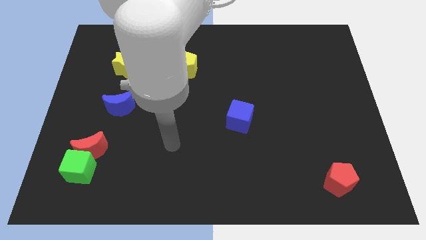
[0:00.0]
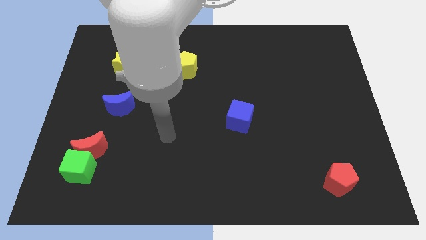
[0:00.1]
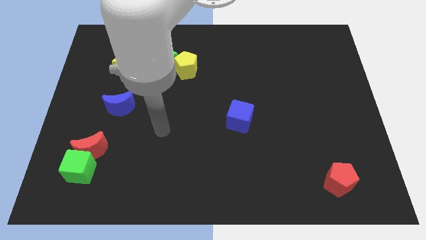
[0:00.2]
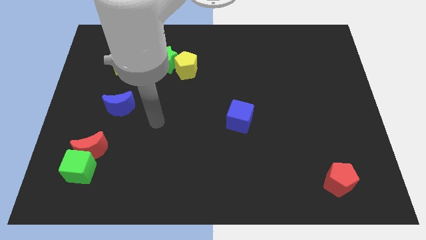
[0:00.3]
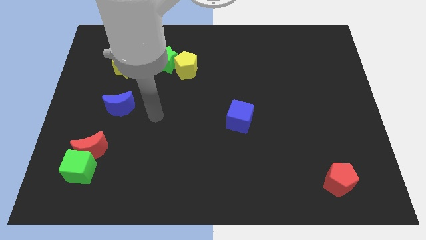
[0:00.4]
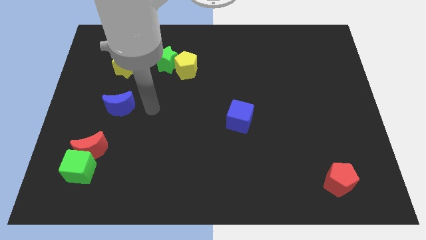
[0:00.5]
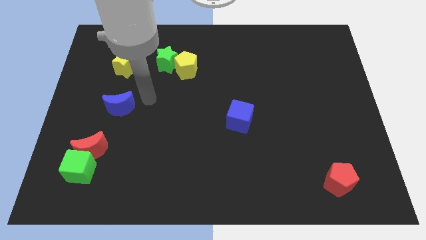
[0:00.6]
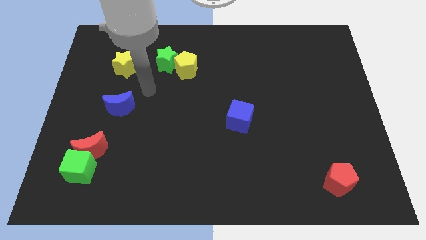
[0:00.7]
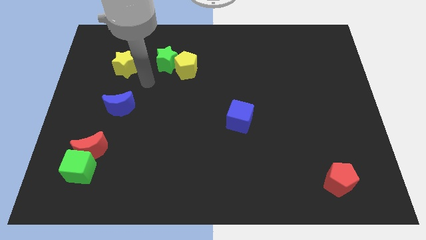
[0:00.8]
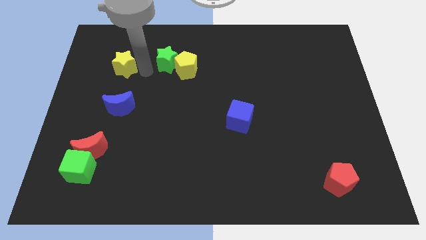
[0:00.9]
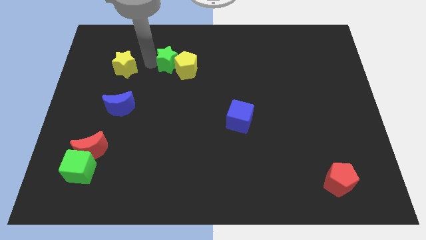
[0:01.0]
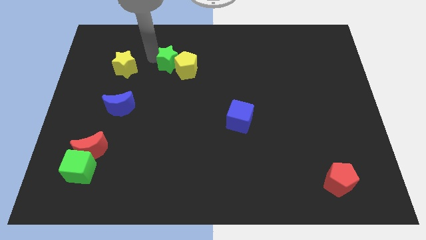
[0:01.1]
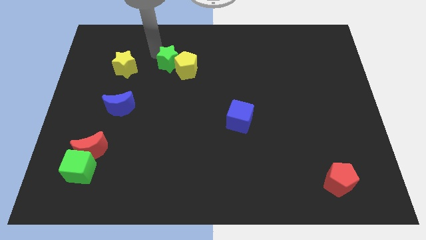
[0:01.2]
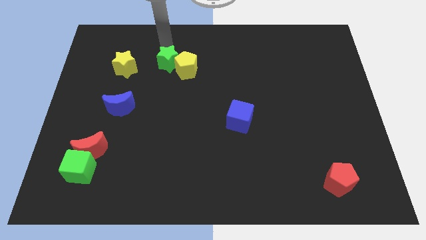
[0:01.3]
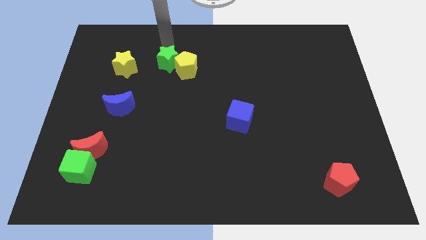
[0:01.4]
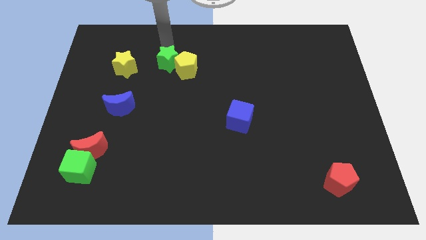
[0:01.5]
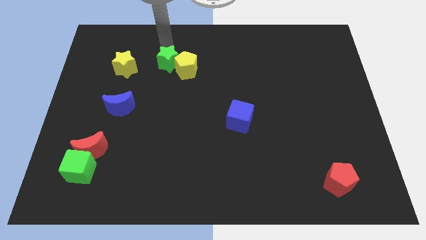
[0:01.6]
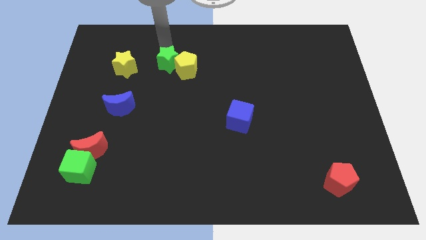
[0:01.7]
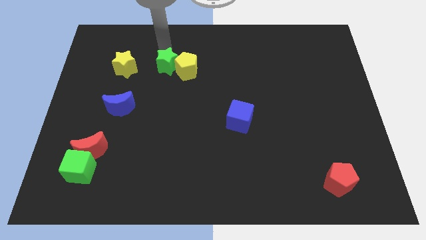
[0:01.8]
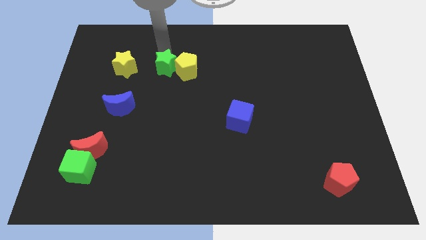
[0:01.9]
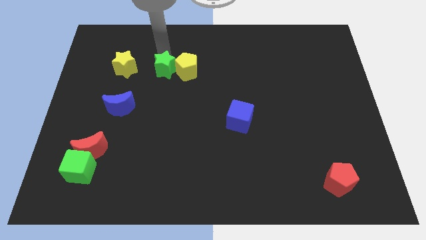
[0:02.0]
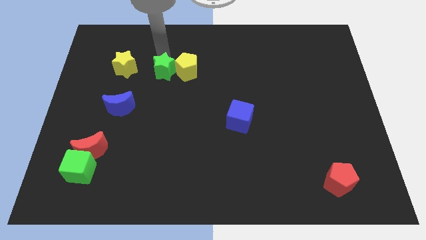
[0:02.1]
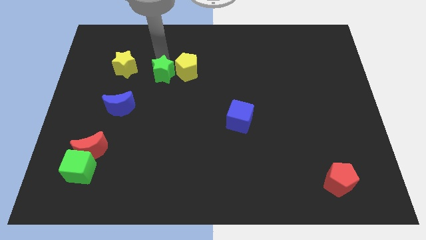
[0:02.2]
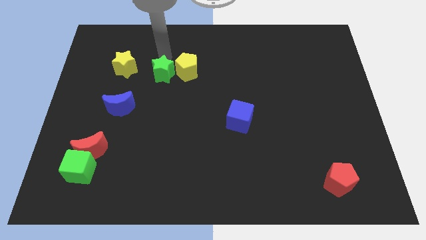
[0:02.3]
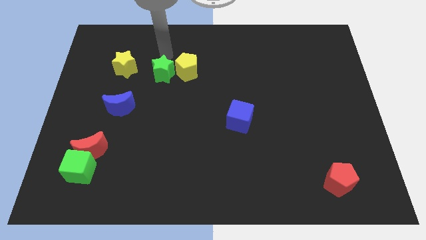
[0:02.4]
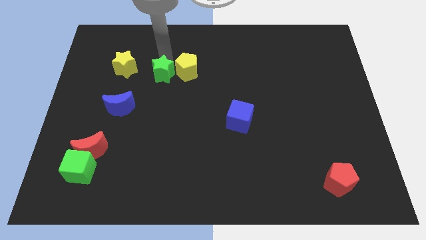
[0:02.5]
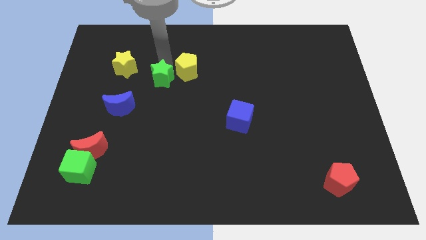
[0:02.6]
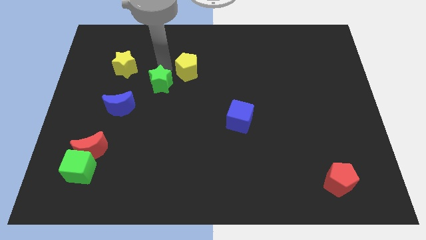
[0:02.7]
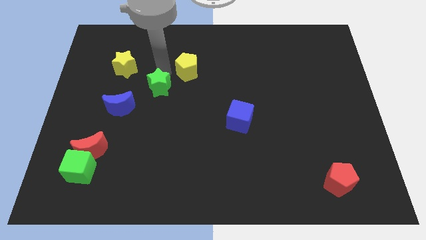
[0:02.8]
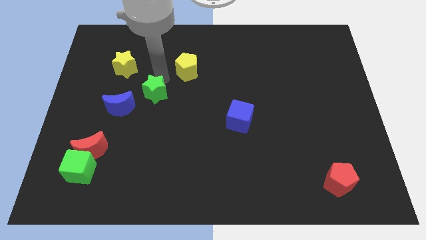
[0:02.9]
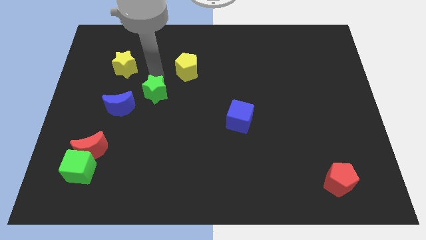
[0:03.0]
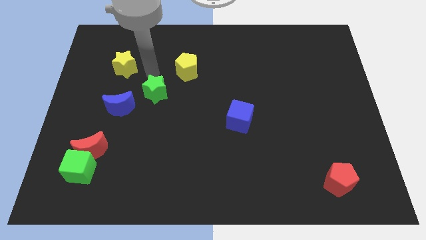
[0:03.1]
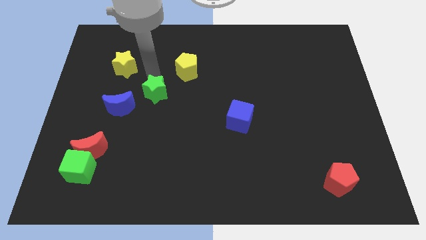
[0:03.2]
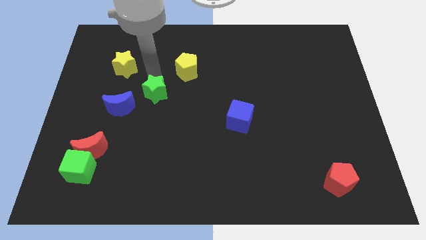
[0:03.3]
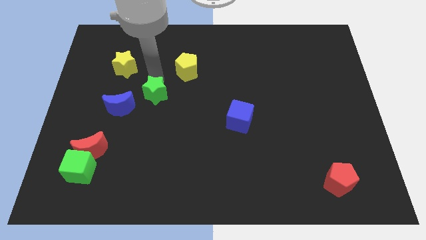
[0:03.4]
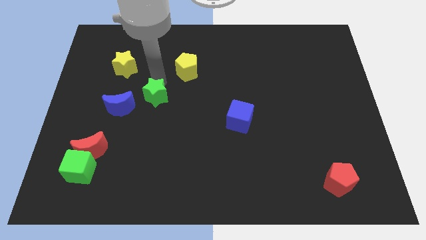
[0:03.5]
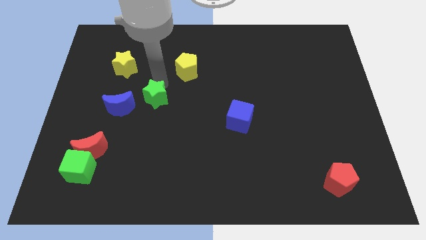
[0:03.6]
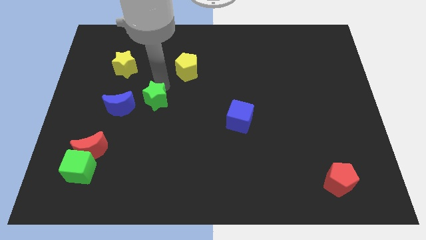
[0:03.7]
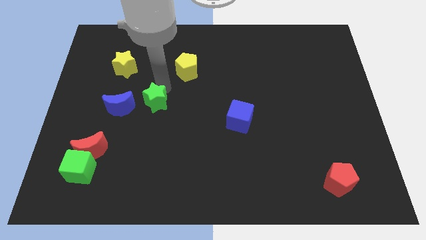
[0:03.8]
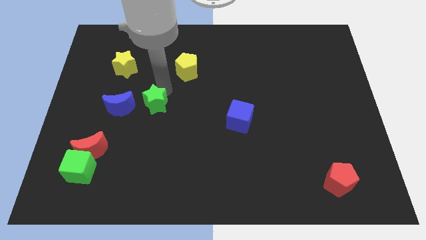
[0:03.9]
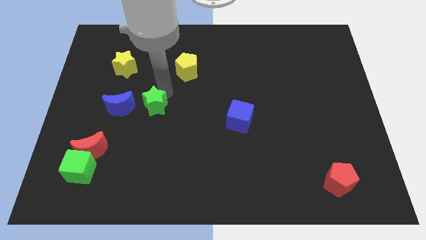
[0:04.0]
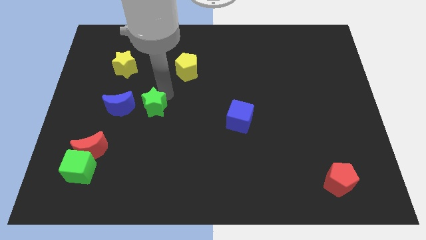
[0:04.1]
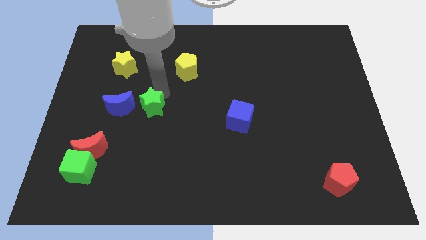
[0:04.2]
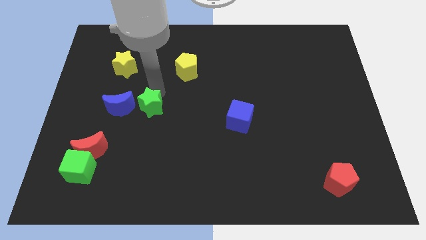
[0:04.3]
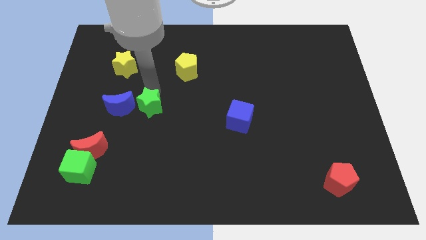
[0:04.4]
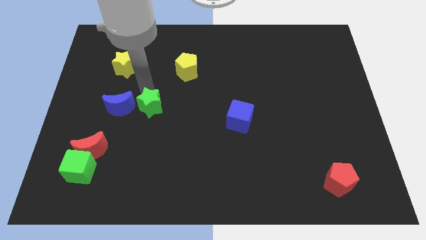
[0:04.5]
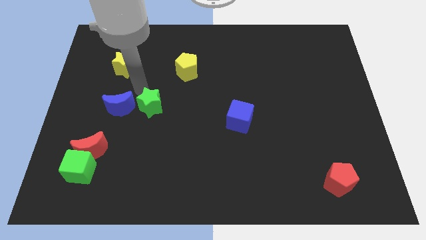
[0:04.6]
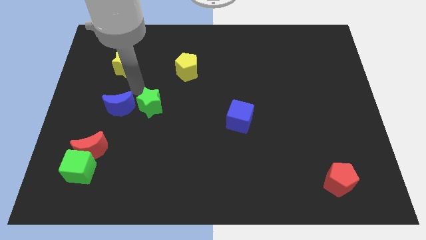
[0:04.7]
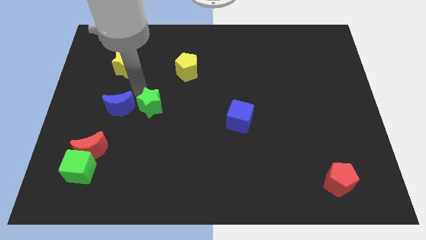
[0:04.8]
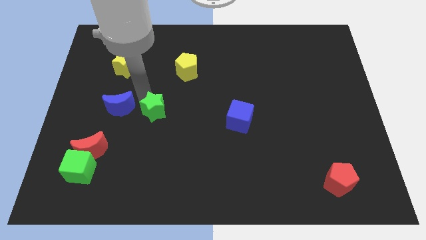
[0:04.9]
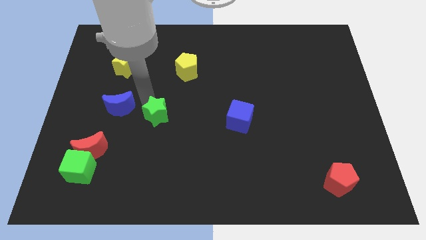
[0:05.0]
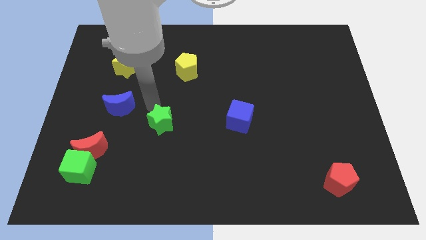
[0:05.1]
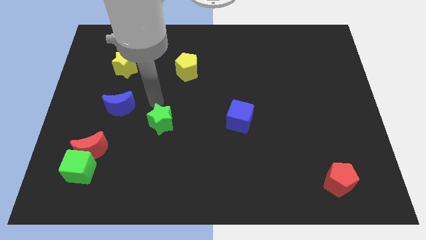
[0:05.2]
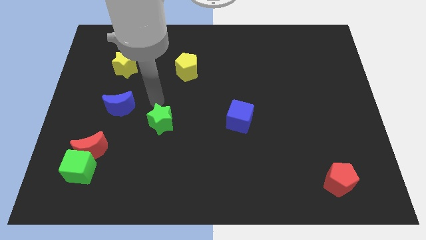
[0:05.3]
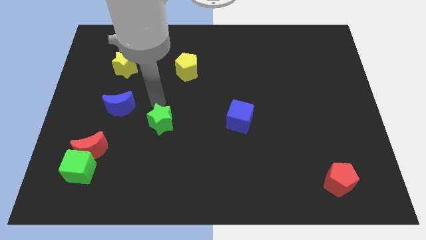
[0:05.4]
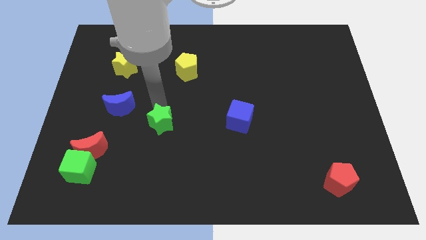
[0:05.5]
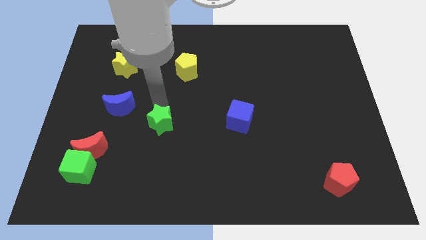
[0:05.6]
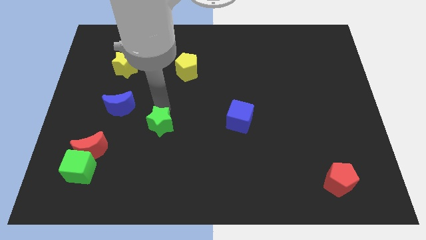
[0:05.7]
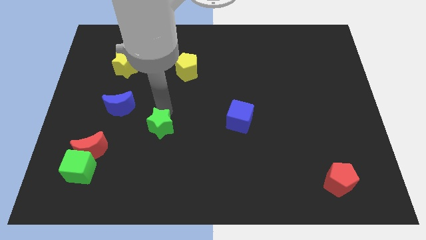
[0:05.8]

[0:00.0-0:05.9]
move the green star downwards

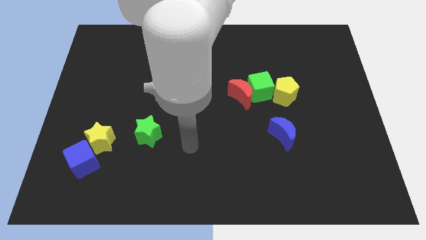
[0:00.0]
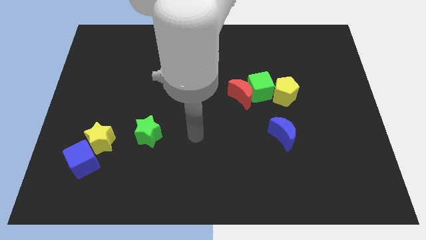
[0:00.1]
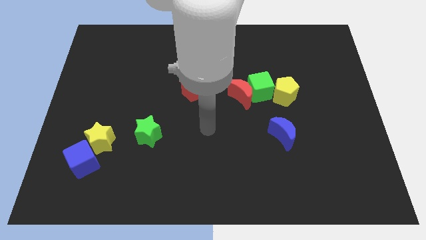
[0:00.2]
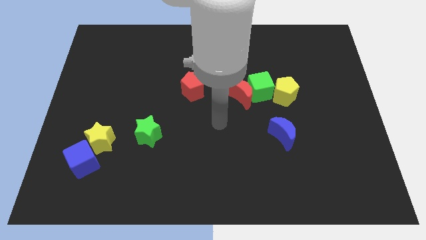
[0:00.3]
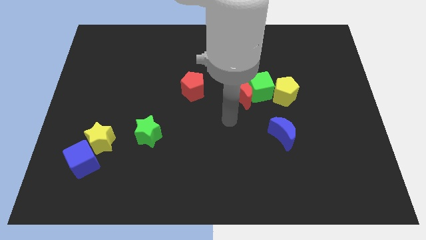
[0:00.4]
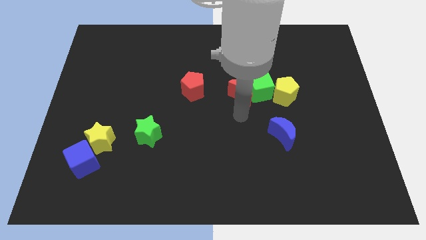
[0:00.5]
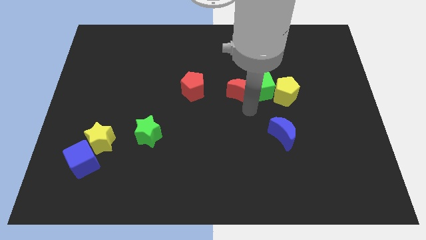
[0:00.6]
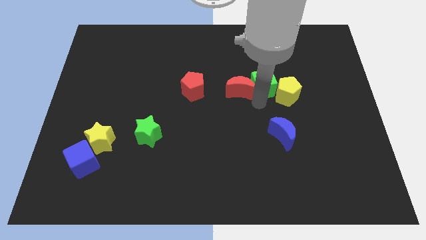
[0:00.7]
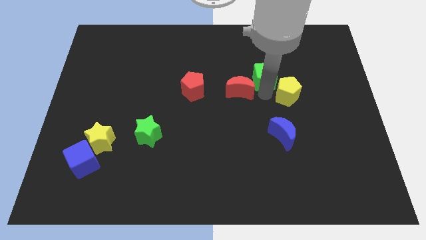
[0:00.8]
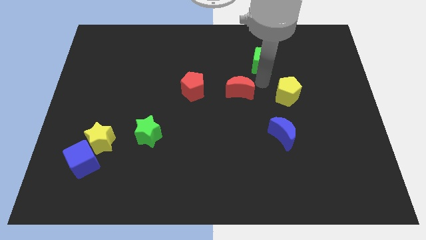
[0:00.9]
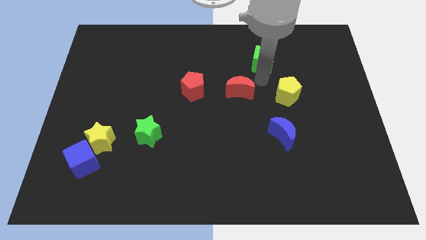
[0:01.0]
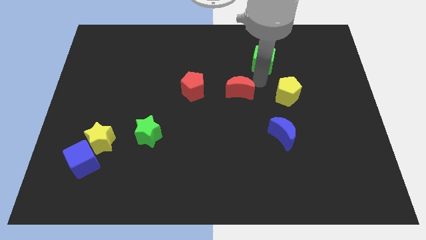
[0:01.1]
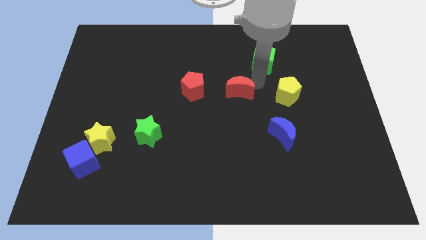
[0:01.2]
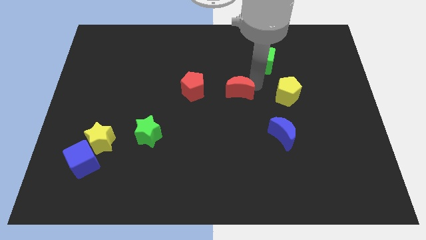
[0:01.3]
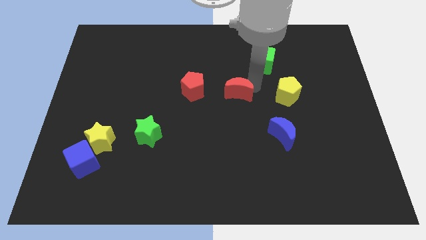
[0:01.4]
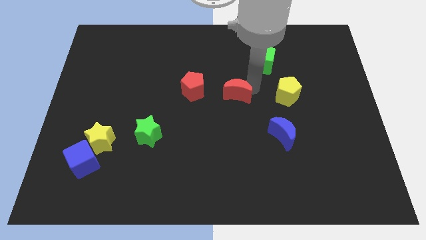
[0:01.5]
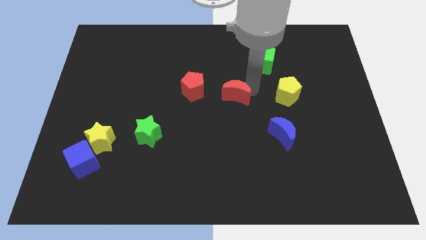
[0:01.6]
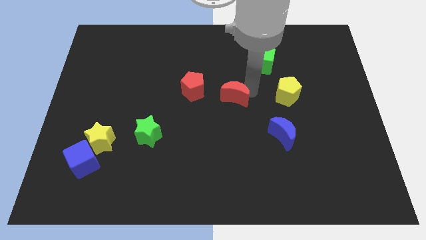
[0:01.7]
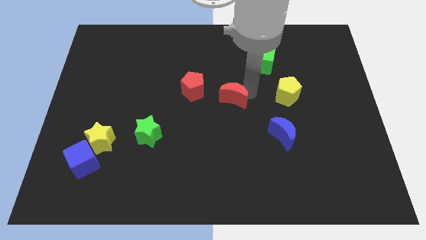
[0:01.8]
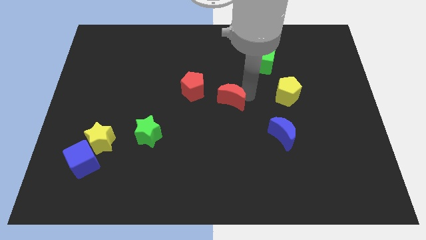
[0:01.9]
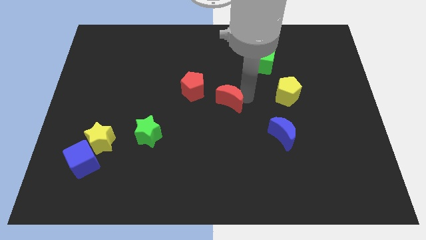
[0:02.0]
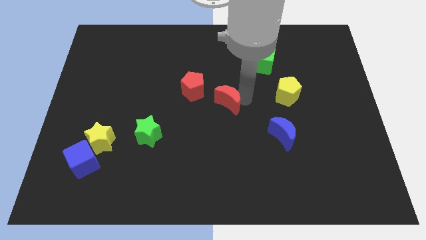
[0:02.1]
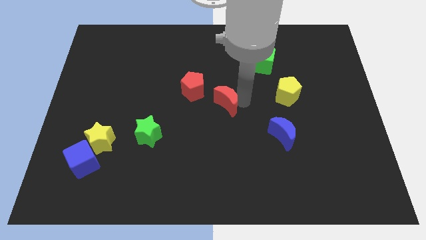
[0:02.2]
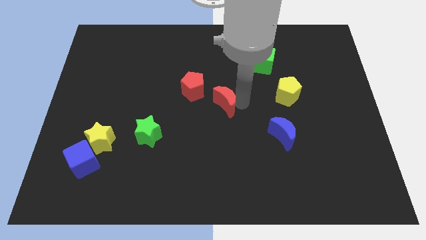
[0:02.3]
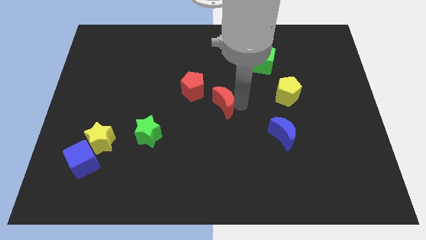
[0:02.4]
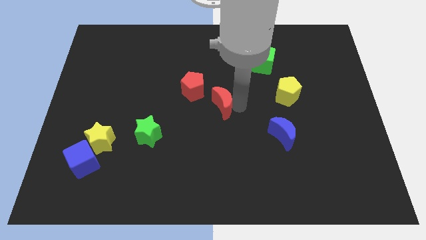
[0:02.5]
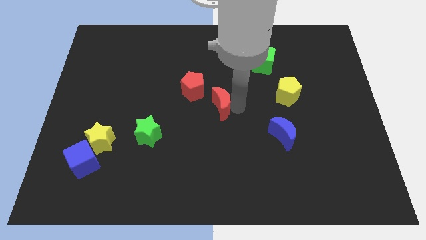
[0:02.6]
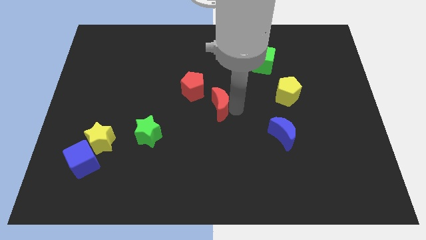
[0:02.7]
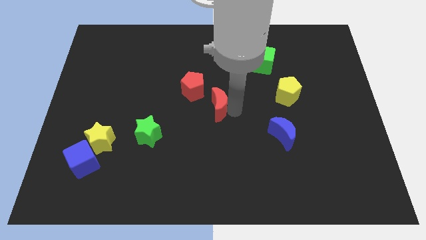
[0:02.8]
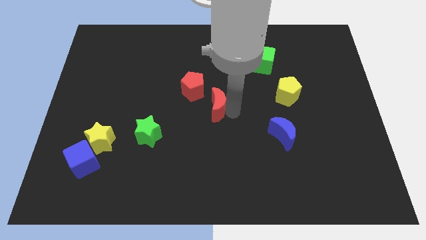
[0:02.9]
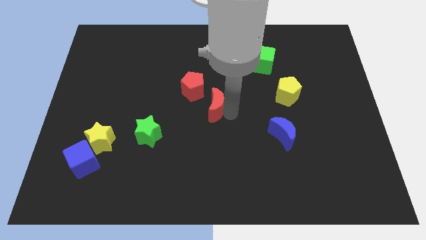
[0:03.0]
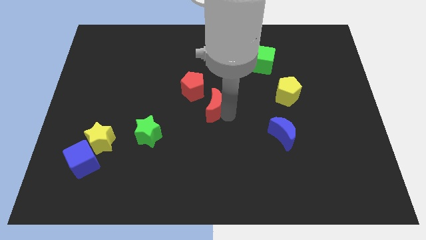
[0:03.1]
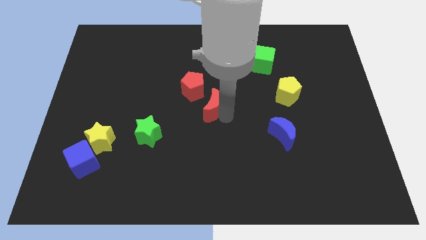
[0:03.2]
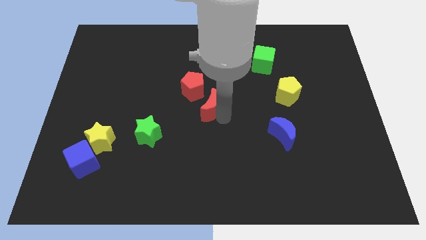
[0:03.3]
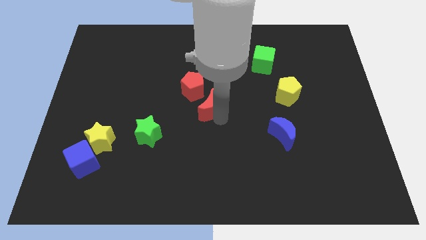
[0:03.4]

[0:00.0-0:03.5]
move the red moon a little left
